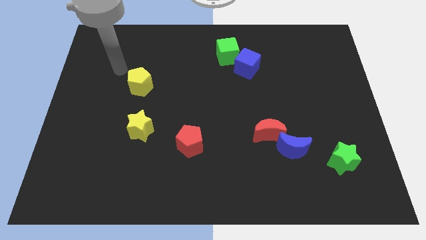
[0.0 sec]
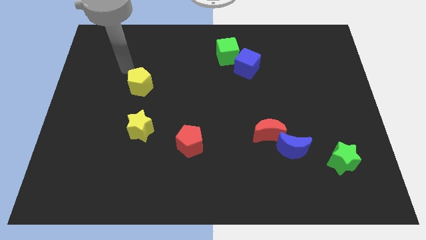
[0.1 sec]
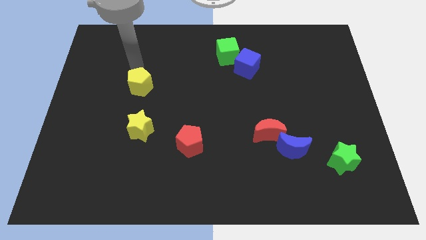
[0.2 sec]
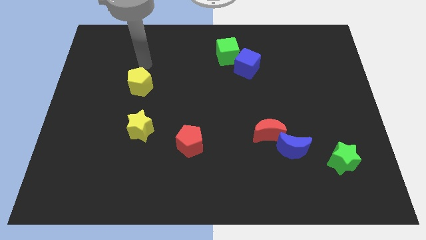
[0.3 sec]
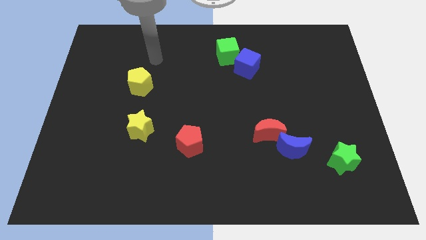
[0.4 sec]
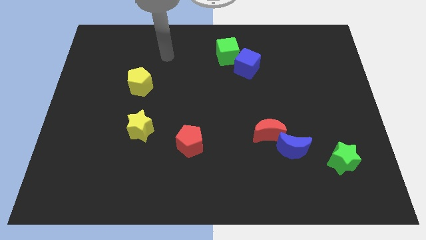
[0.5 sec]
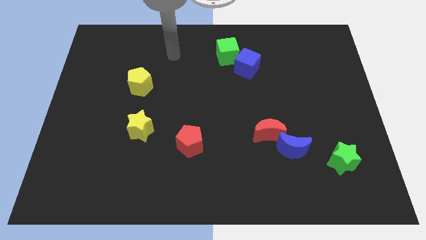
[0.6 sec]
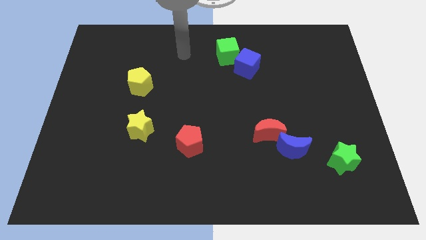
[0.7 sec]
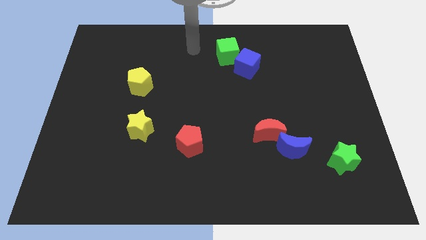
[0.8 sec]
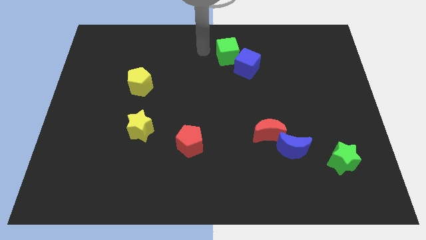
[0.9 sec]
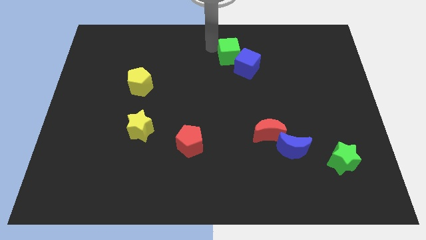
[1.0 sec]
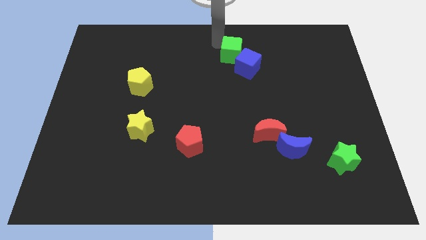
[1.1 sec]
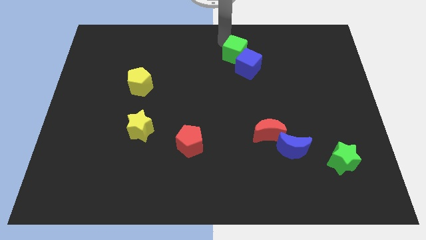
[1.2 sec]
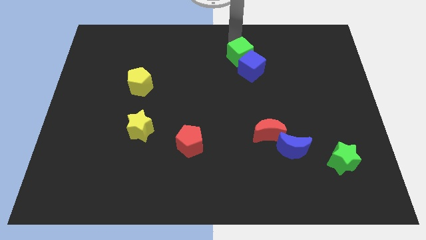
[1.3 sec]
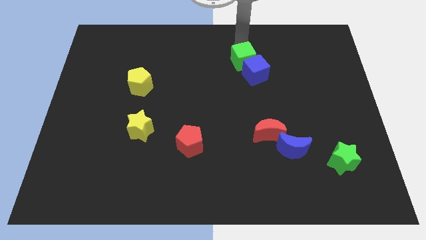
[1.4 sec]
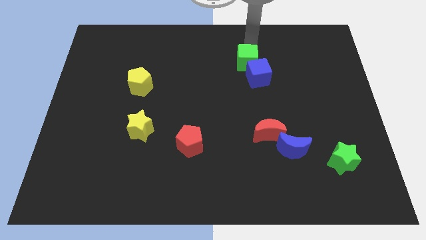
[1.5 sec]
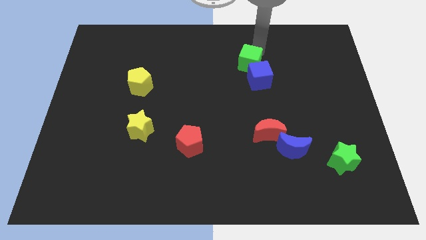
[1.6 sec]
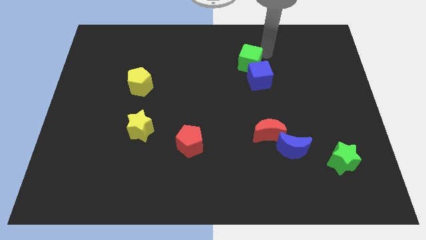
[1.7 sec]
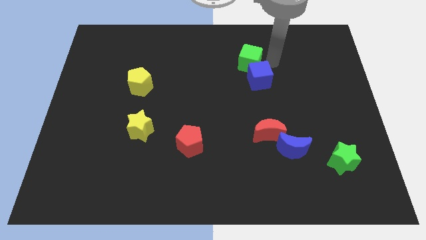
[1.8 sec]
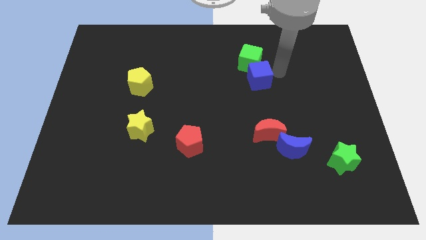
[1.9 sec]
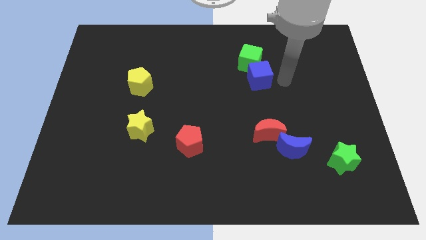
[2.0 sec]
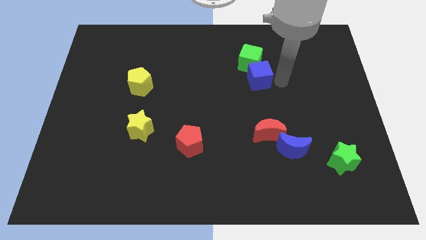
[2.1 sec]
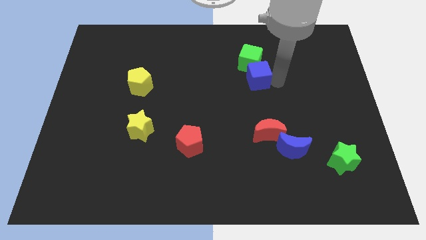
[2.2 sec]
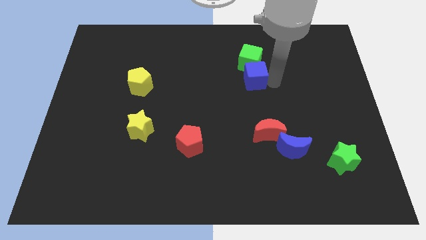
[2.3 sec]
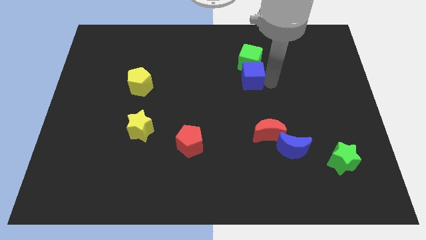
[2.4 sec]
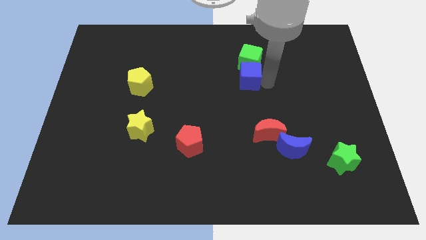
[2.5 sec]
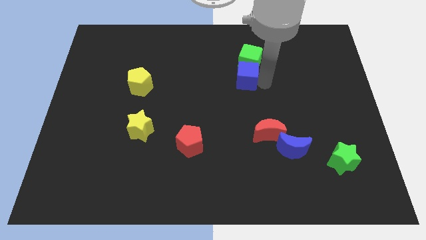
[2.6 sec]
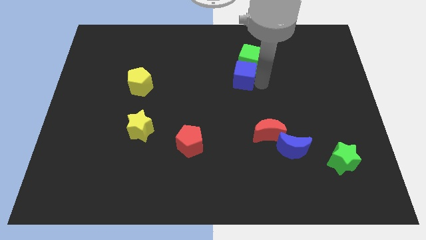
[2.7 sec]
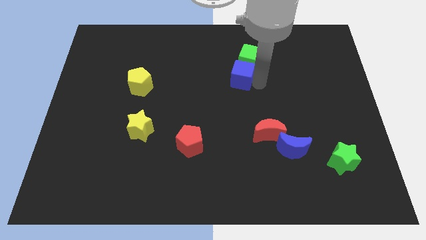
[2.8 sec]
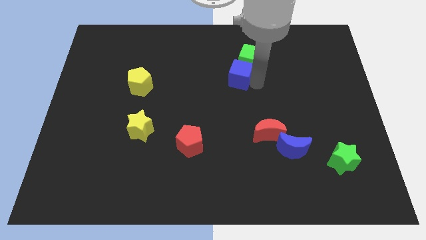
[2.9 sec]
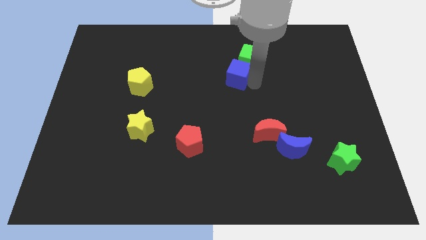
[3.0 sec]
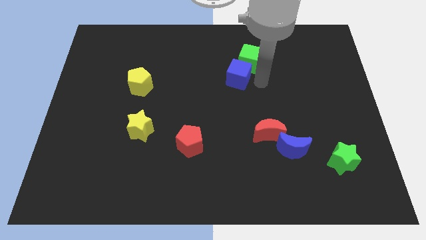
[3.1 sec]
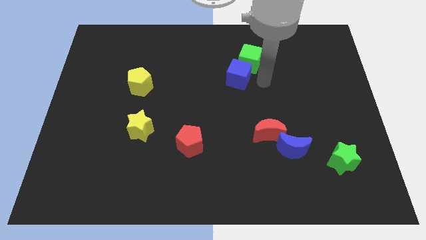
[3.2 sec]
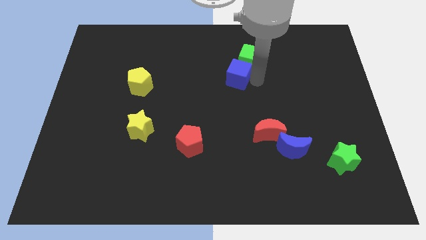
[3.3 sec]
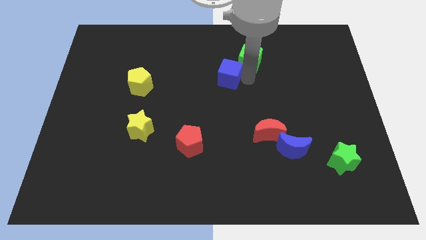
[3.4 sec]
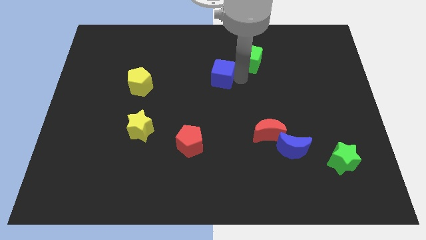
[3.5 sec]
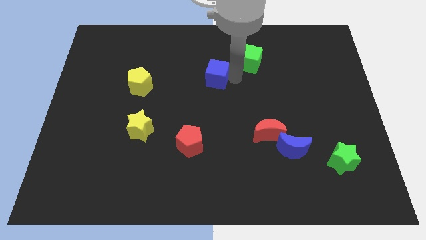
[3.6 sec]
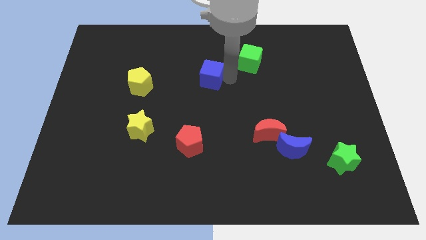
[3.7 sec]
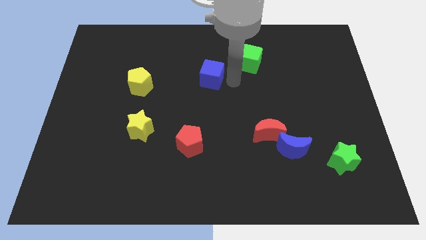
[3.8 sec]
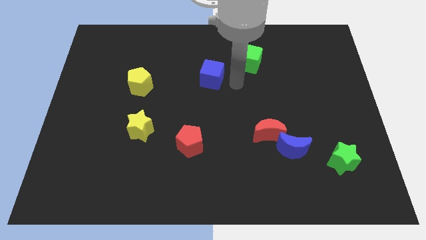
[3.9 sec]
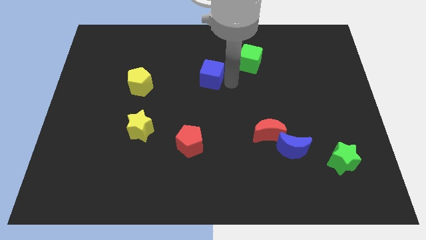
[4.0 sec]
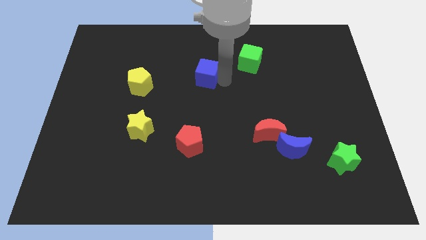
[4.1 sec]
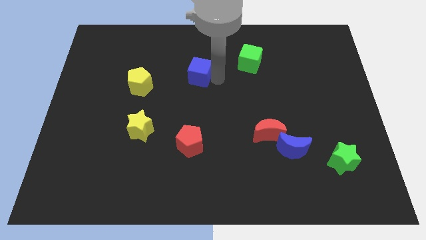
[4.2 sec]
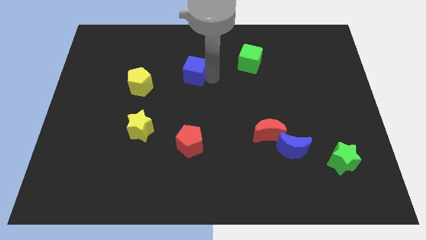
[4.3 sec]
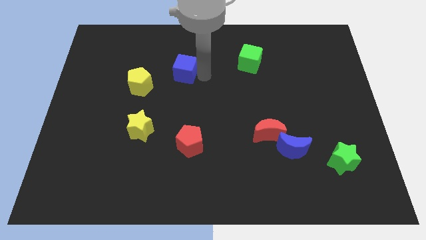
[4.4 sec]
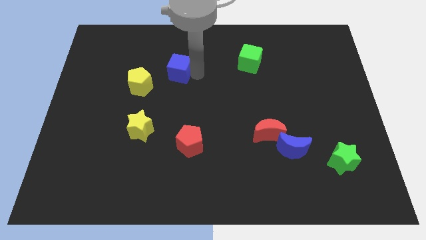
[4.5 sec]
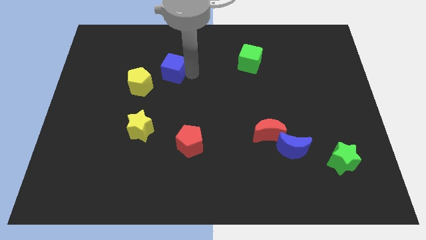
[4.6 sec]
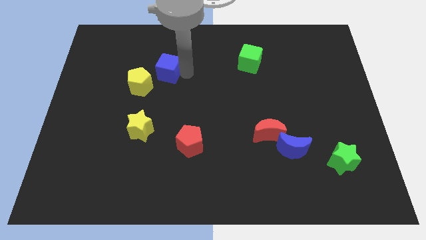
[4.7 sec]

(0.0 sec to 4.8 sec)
move the blue cube to the left

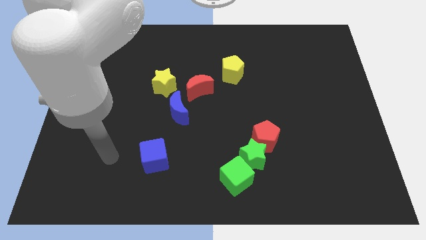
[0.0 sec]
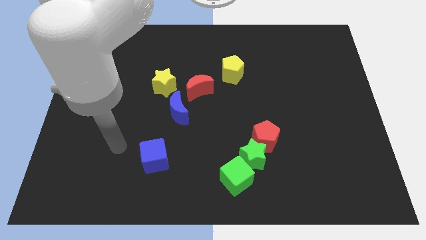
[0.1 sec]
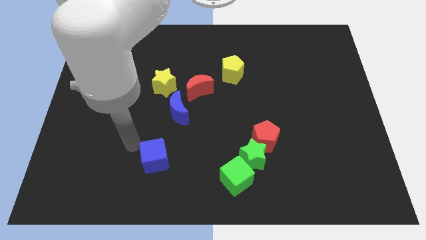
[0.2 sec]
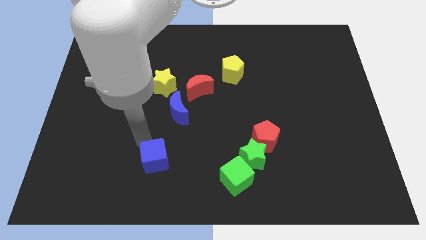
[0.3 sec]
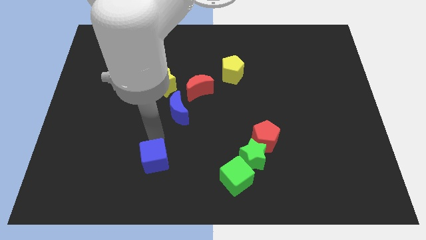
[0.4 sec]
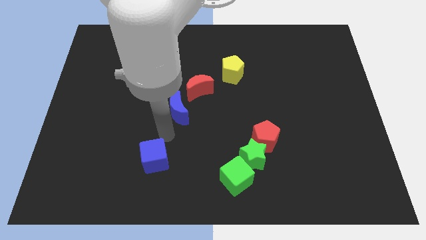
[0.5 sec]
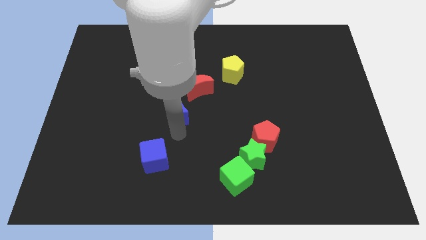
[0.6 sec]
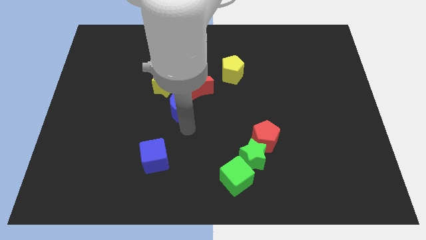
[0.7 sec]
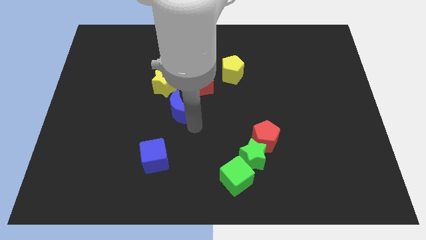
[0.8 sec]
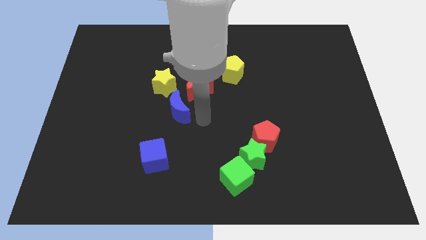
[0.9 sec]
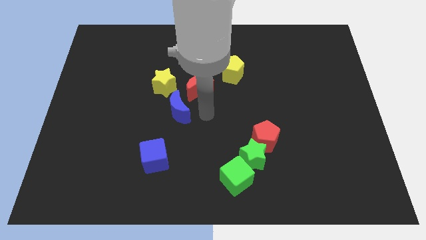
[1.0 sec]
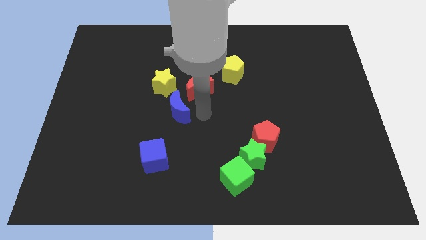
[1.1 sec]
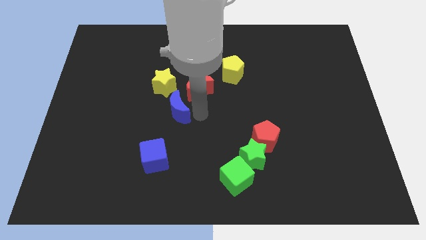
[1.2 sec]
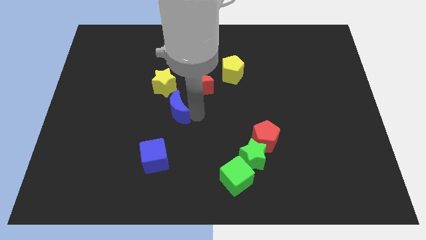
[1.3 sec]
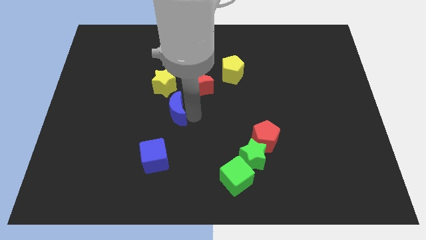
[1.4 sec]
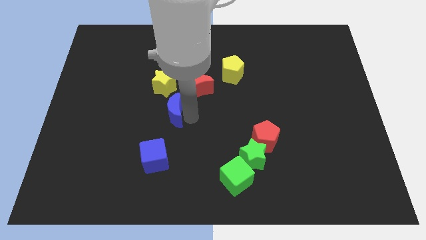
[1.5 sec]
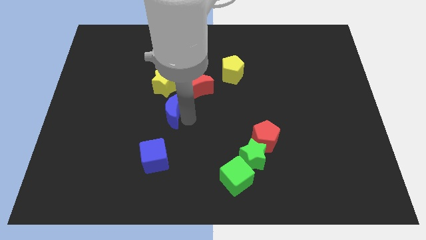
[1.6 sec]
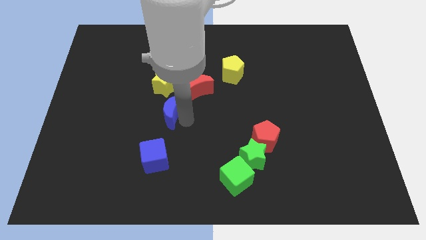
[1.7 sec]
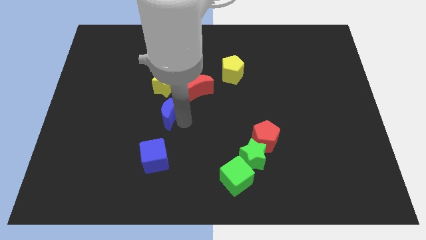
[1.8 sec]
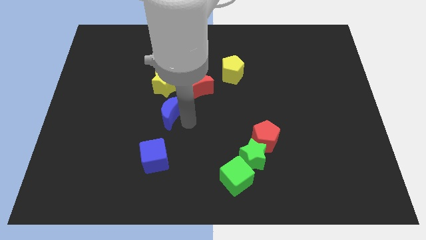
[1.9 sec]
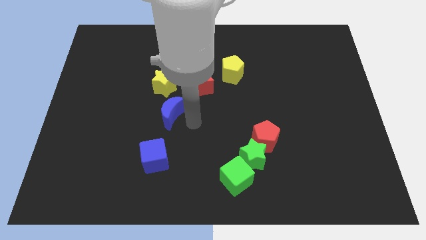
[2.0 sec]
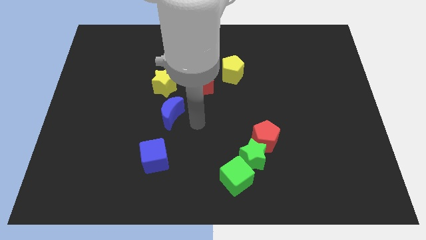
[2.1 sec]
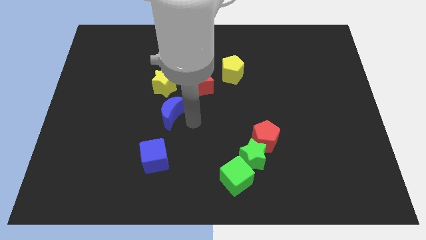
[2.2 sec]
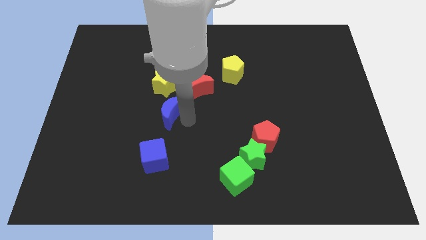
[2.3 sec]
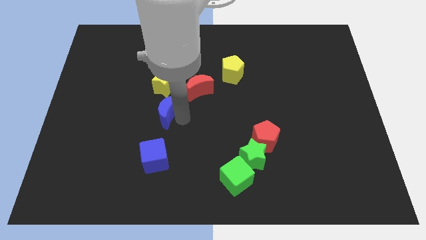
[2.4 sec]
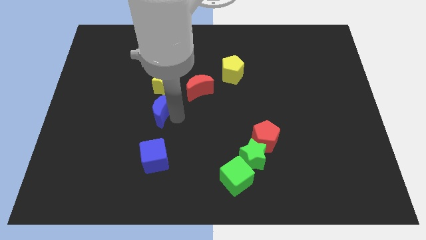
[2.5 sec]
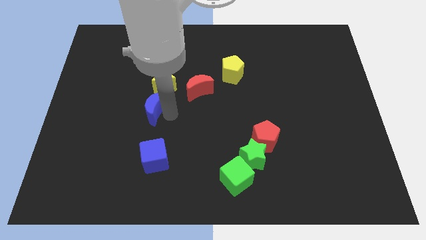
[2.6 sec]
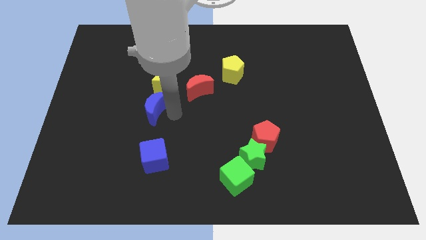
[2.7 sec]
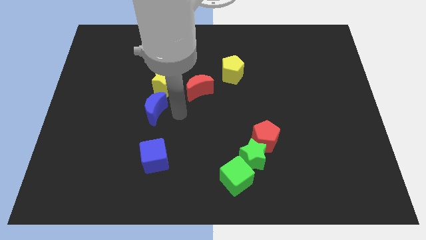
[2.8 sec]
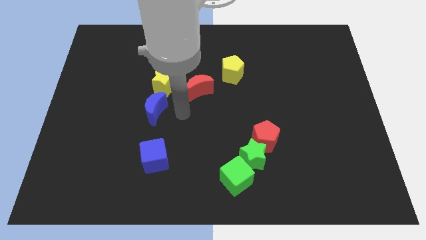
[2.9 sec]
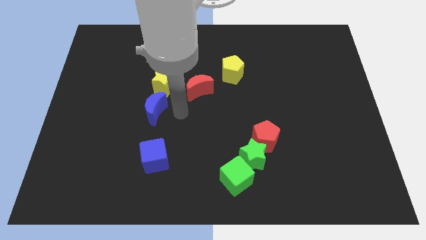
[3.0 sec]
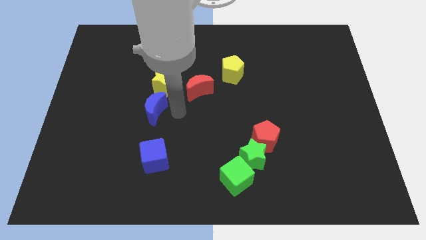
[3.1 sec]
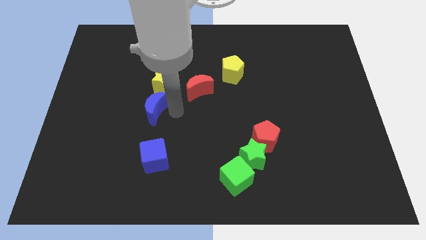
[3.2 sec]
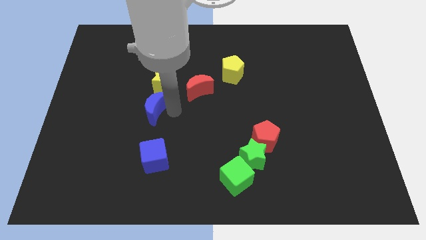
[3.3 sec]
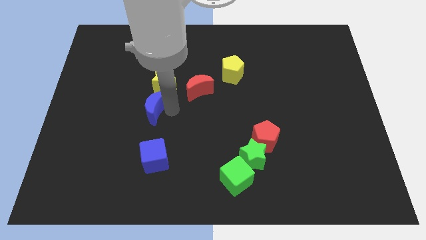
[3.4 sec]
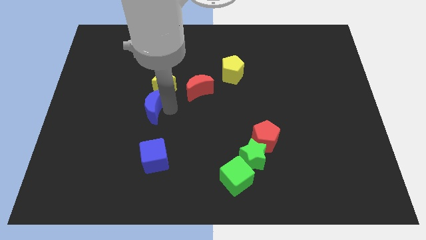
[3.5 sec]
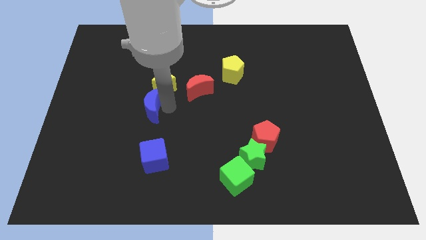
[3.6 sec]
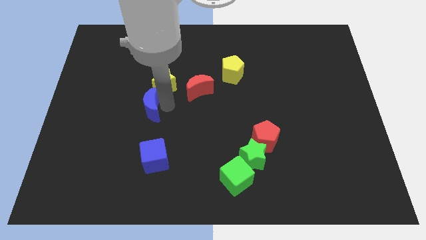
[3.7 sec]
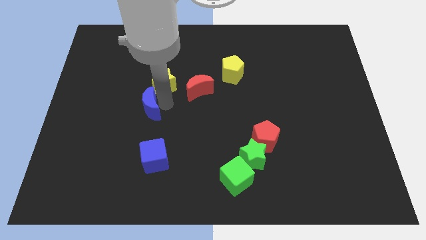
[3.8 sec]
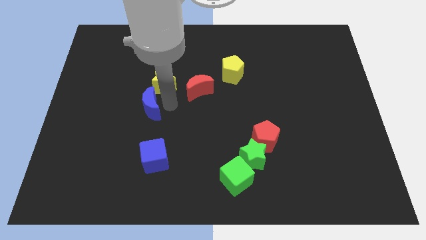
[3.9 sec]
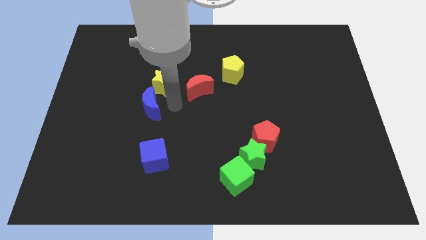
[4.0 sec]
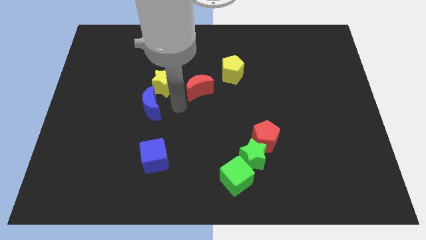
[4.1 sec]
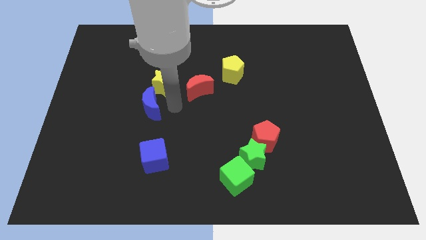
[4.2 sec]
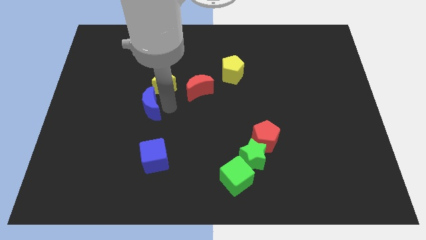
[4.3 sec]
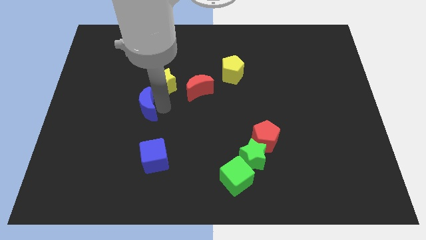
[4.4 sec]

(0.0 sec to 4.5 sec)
push the blue moon left a little
